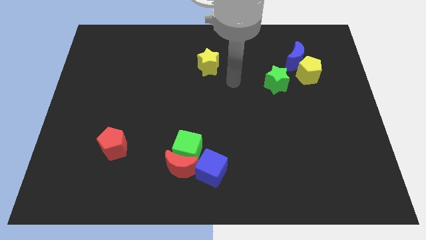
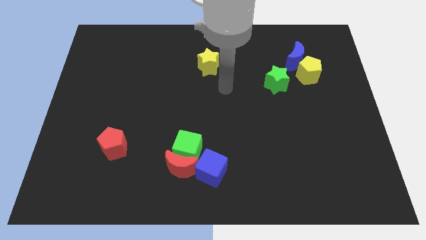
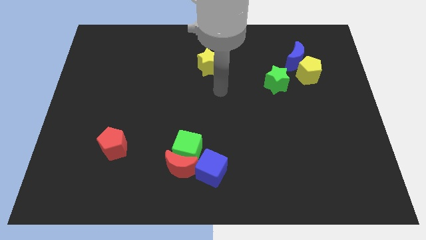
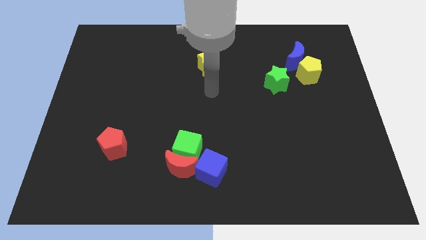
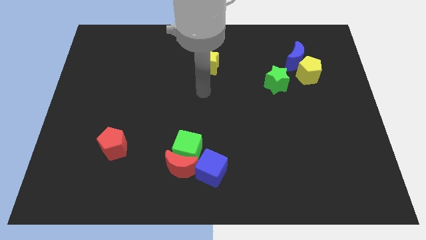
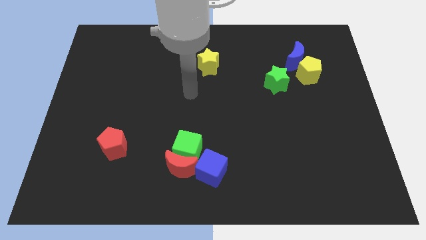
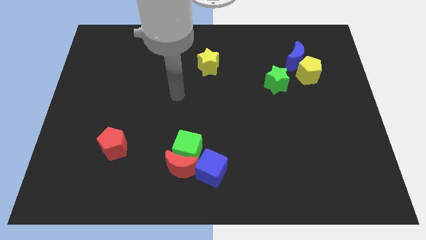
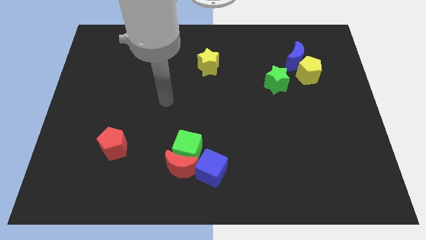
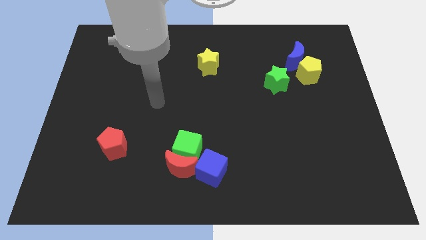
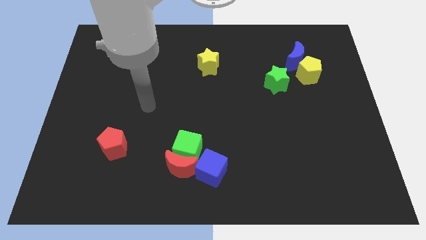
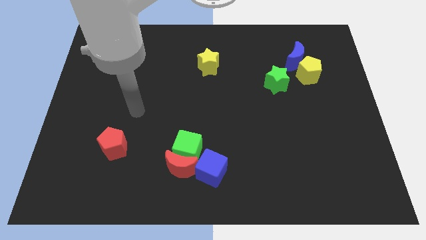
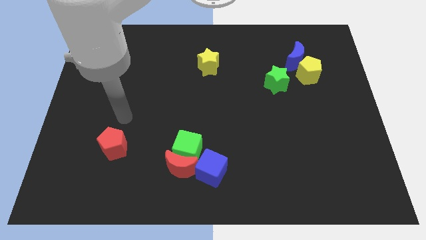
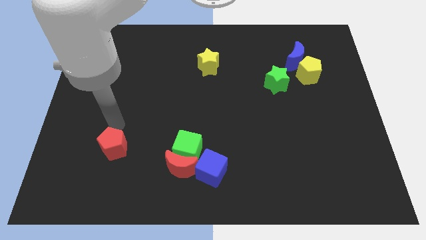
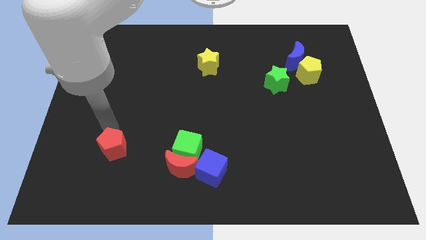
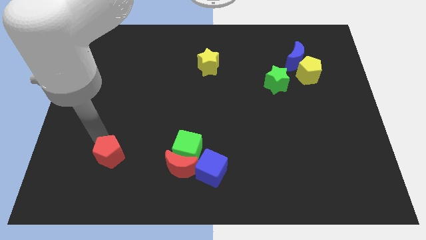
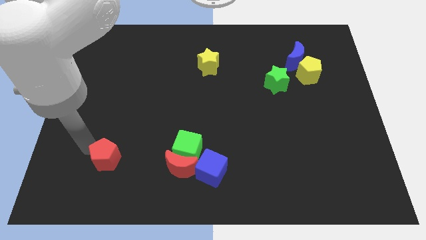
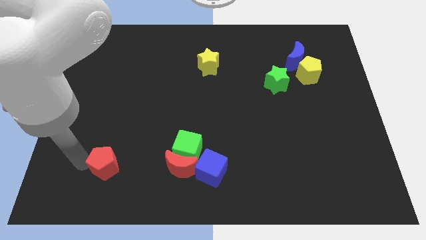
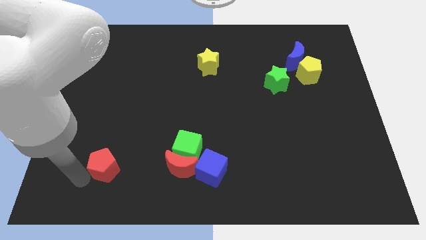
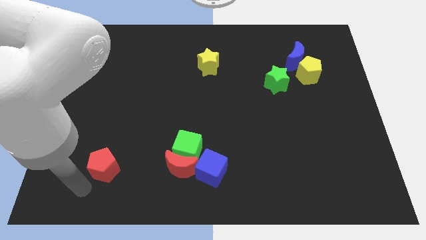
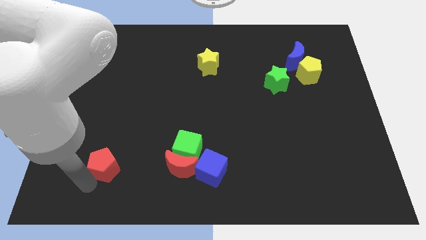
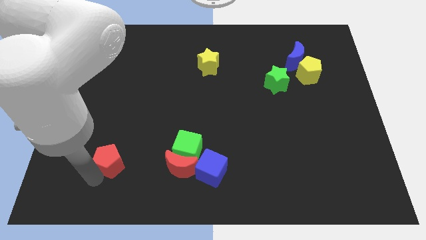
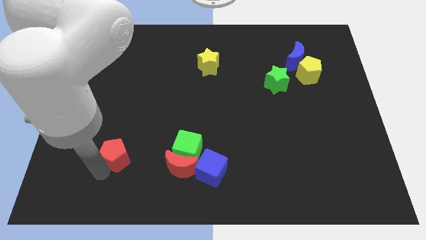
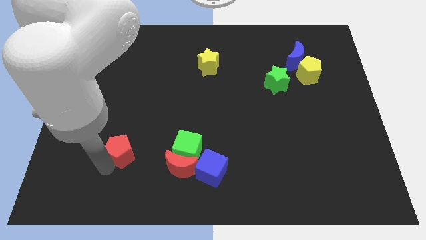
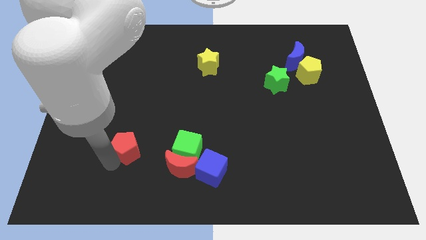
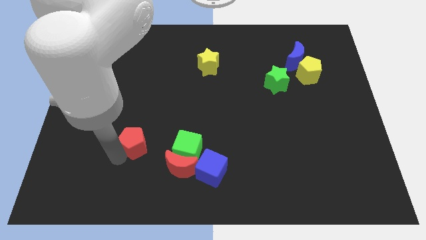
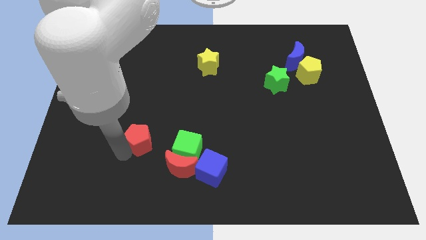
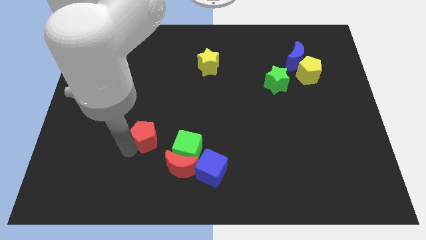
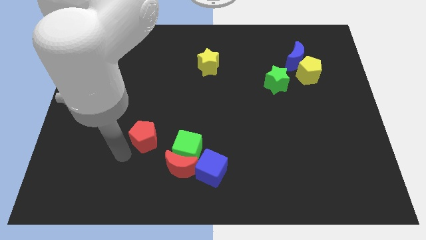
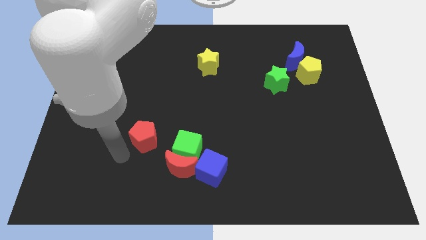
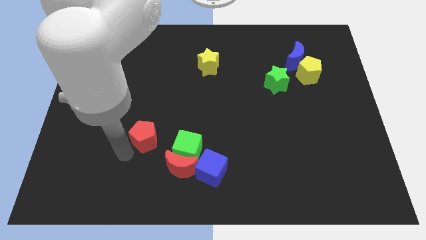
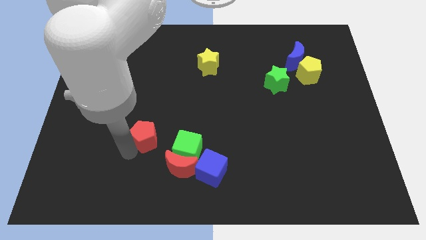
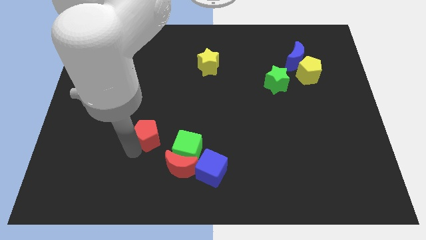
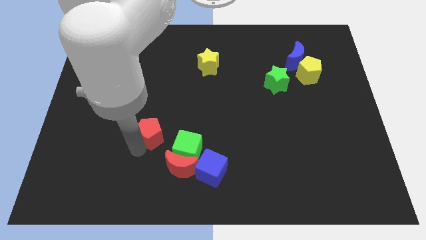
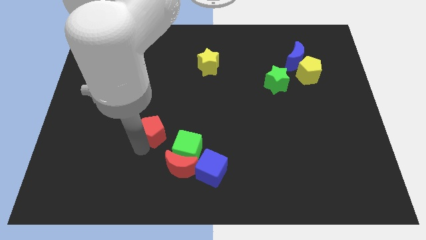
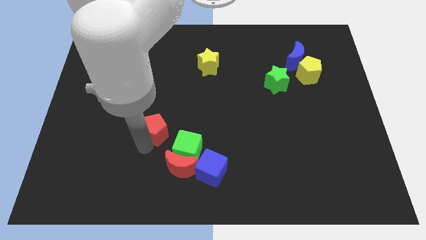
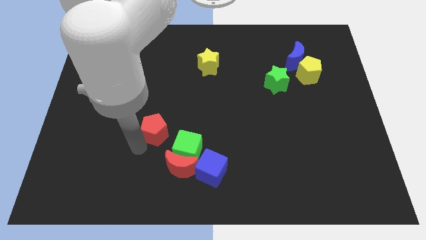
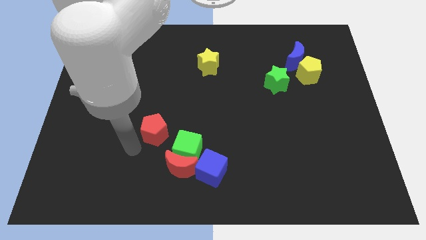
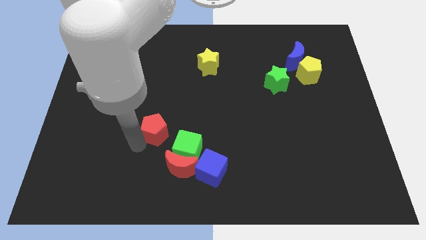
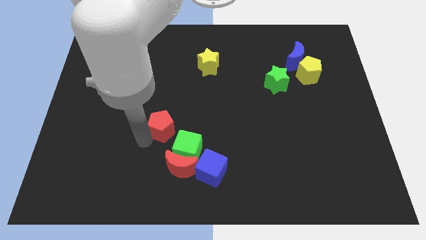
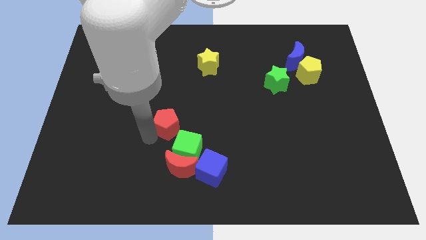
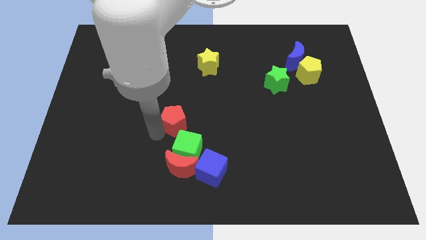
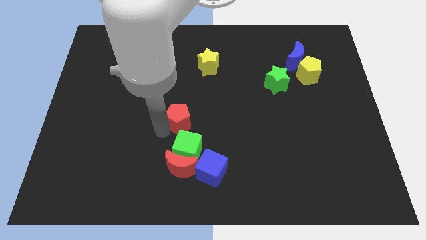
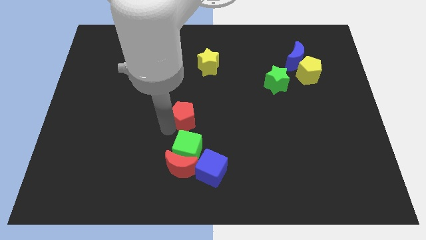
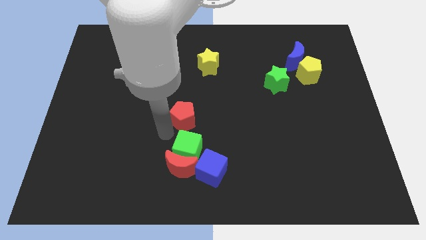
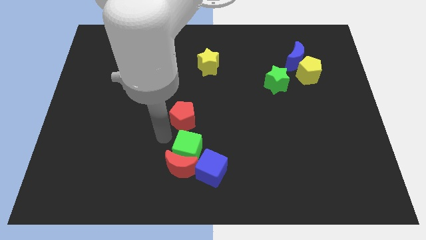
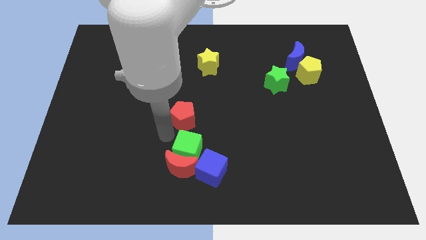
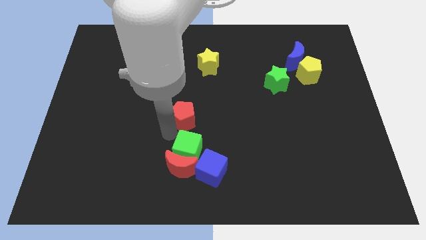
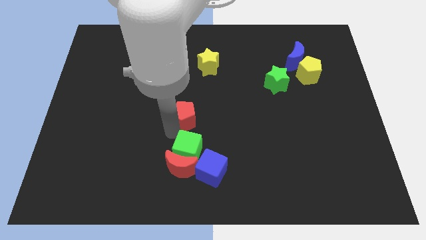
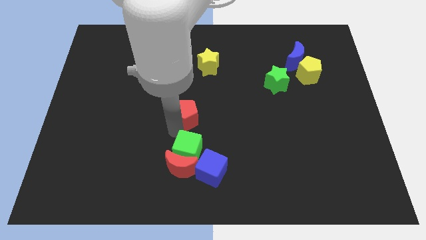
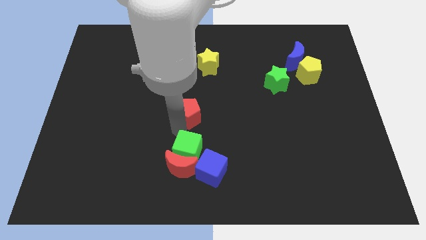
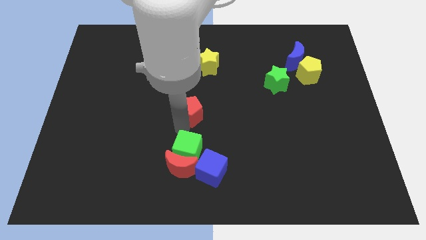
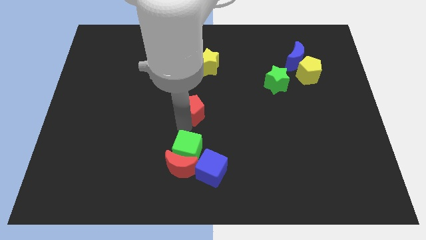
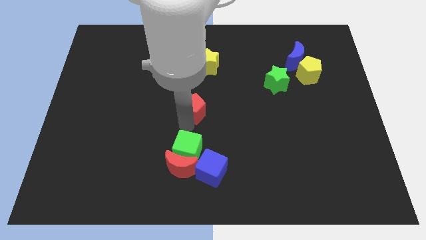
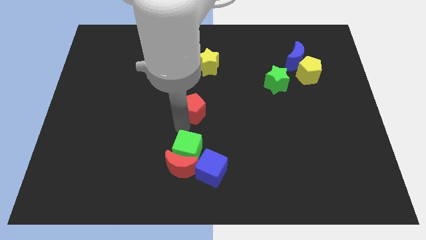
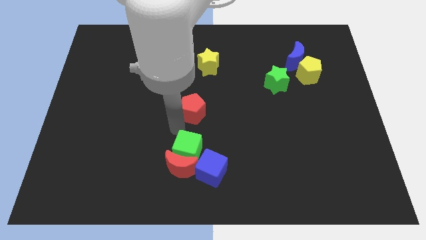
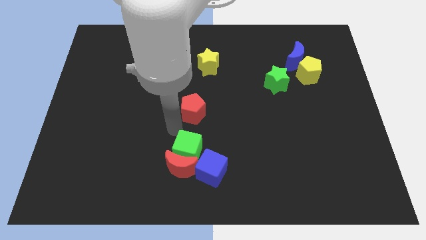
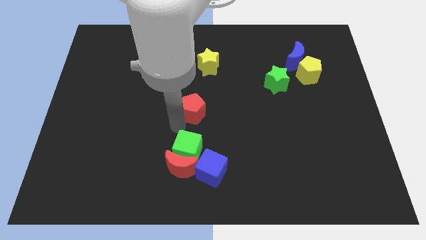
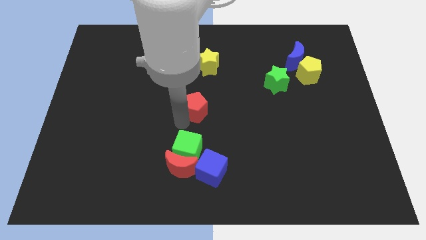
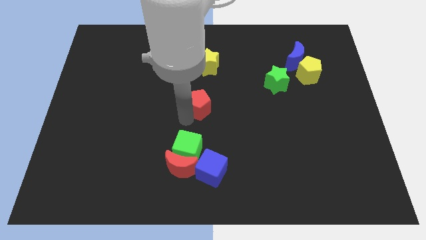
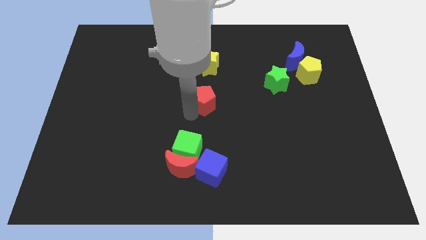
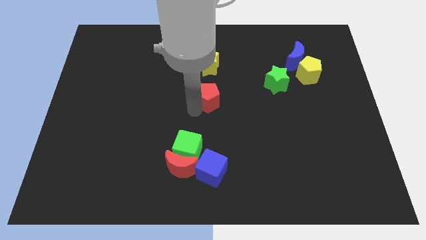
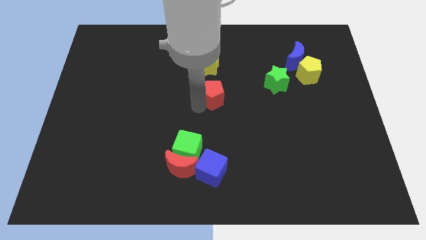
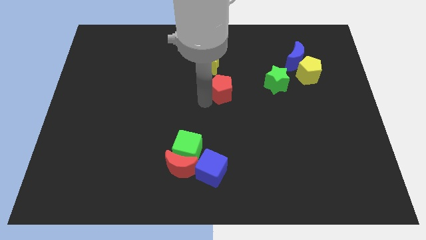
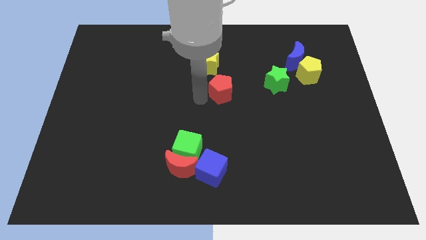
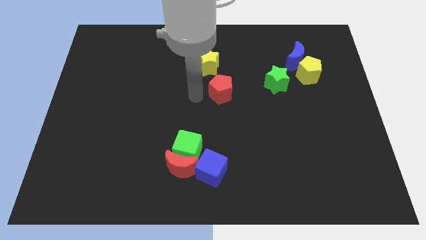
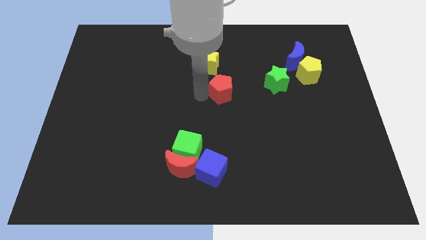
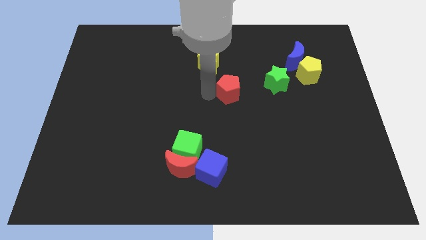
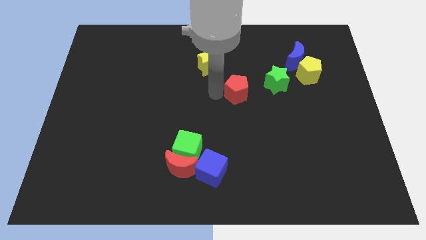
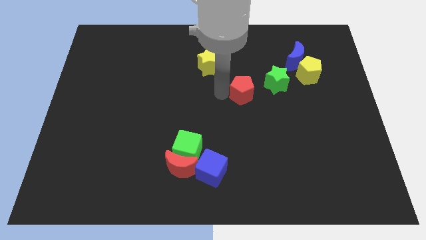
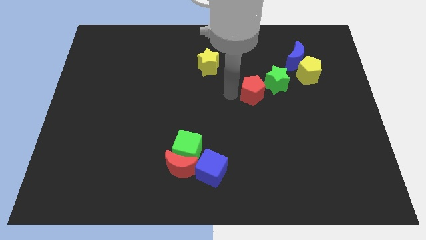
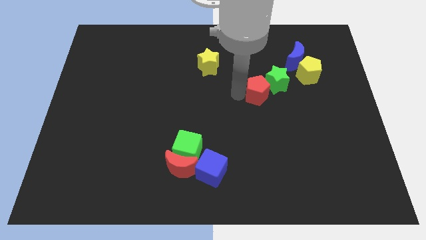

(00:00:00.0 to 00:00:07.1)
put the red pentagon close to the green star

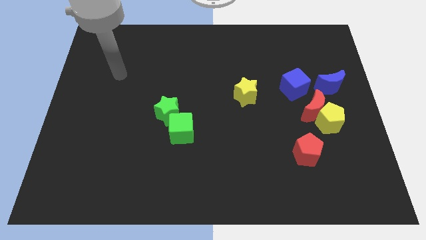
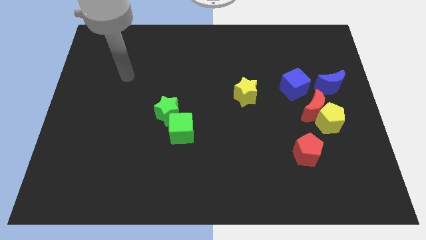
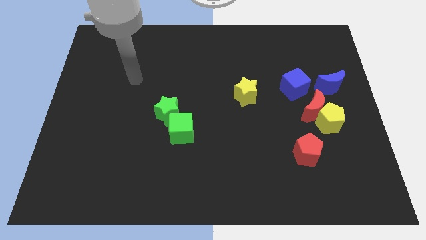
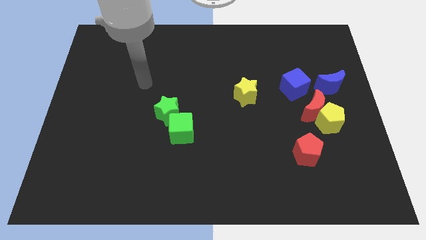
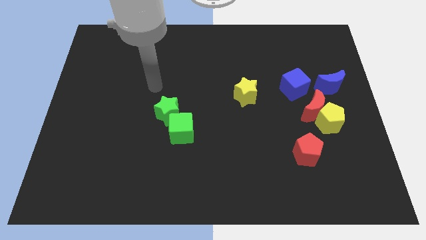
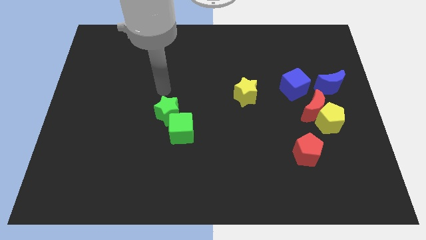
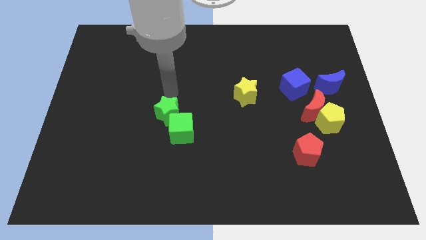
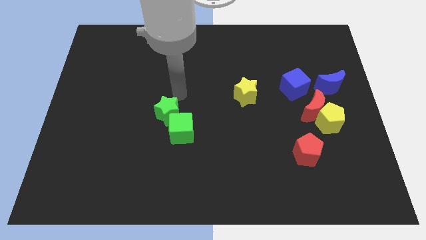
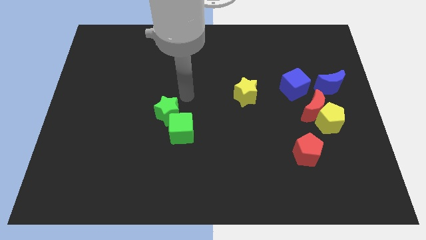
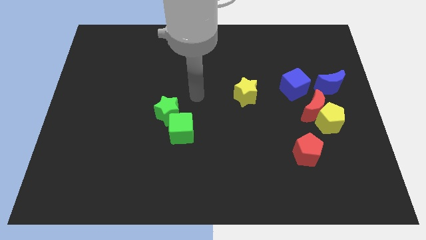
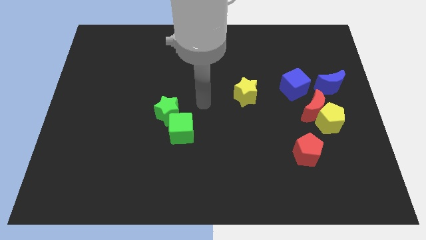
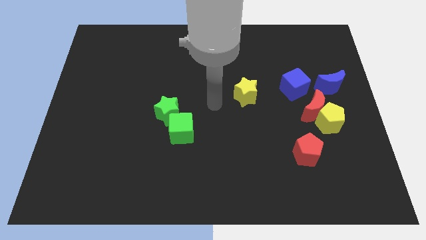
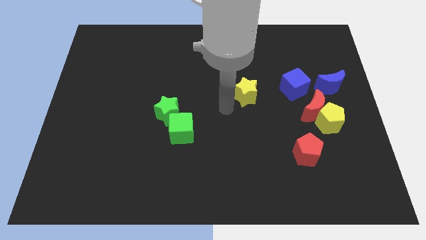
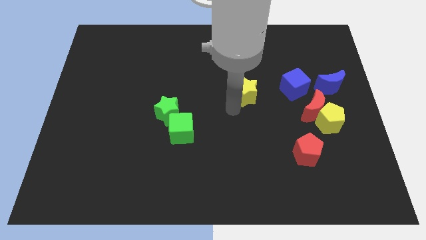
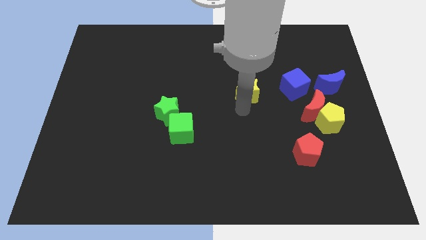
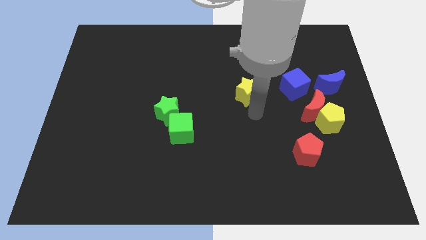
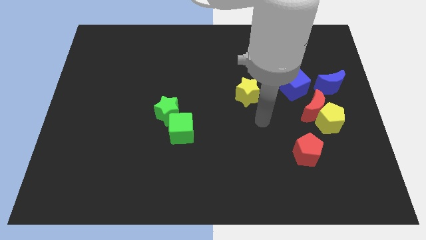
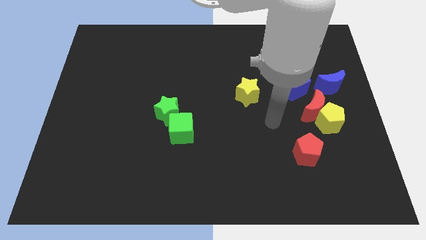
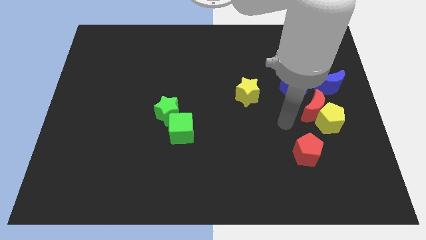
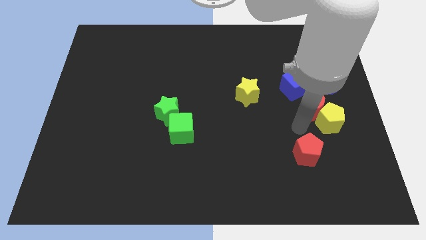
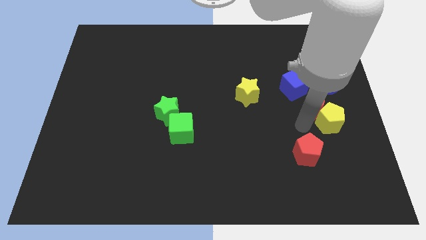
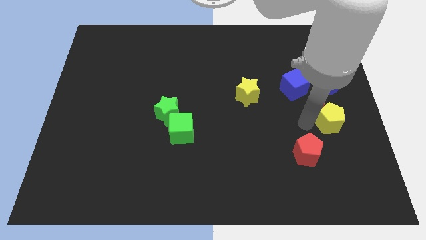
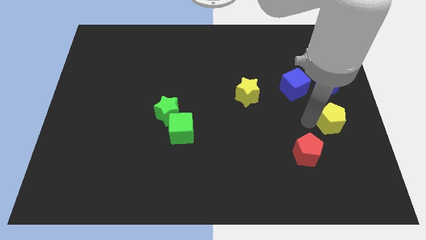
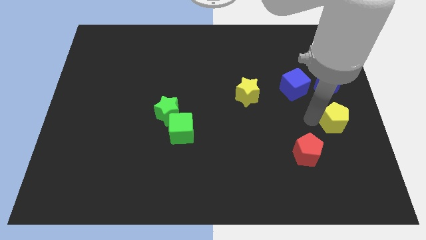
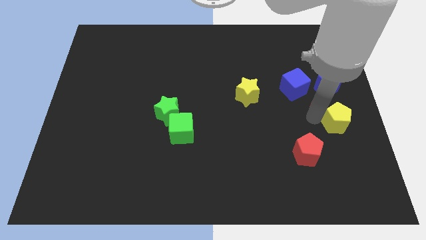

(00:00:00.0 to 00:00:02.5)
slide the red moon next to the blue moon
